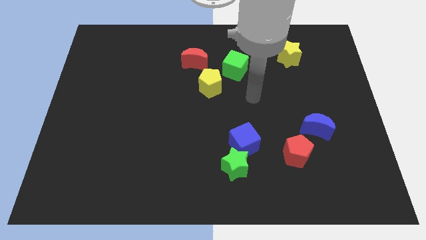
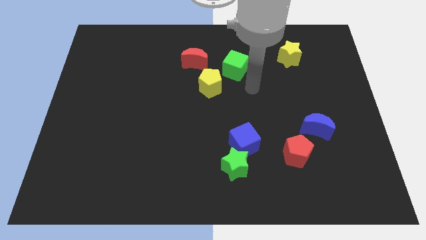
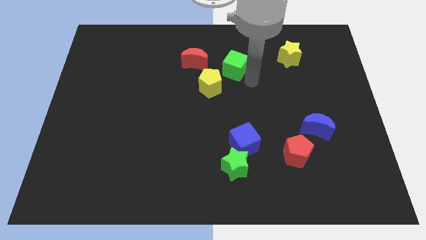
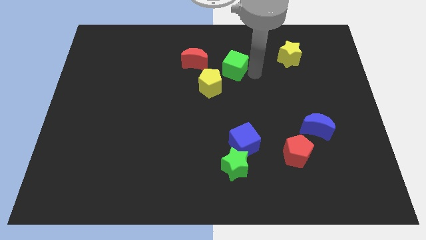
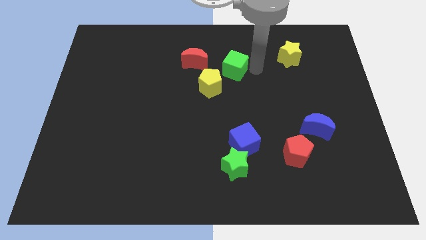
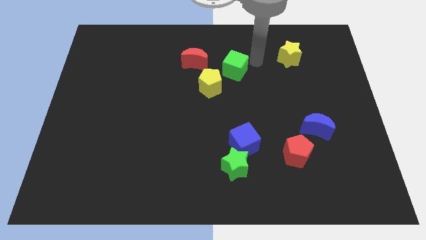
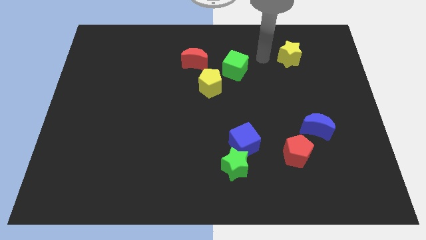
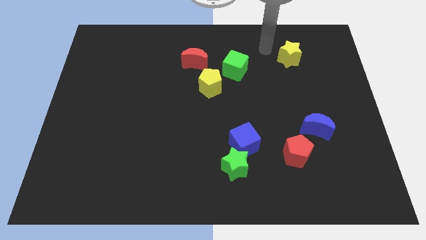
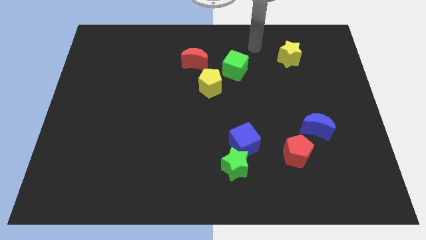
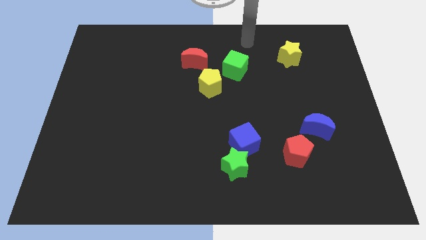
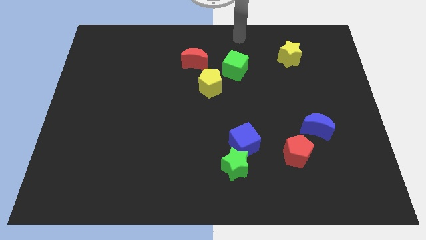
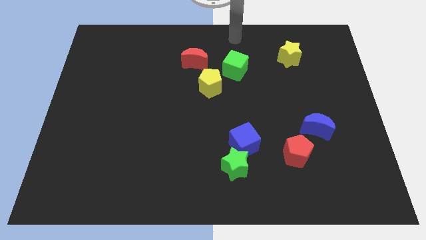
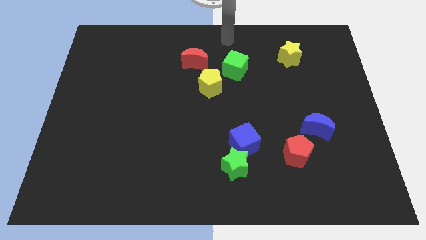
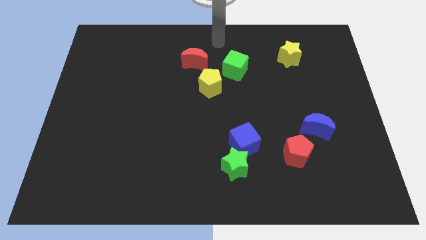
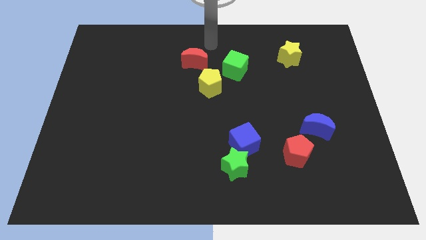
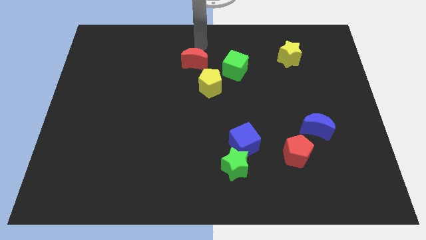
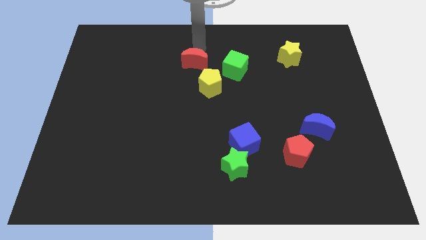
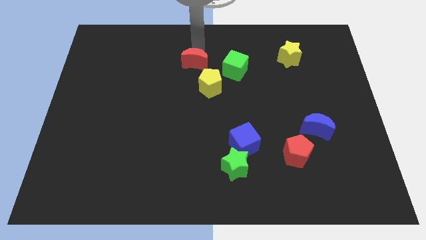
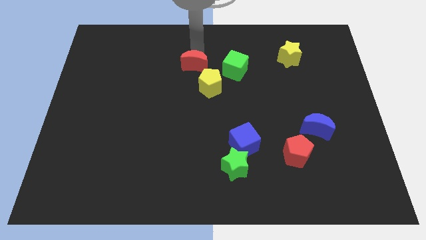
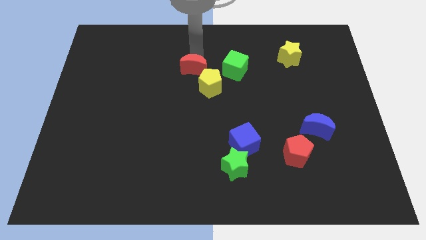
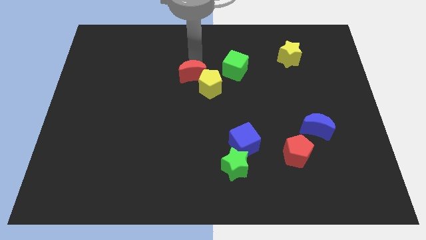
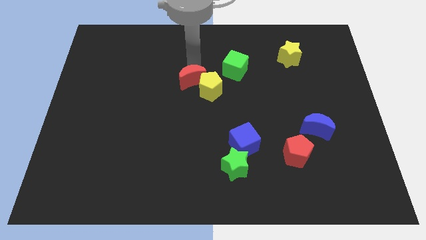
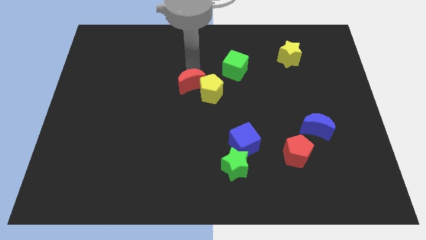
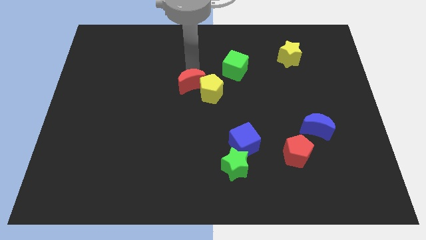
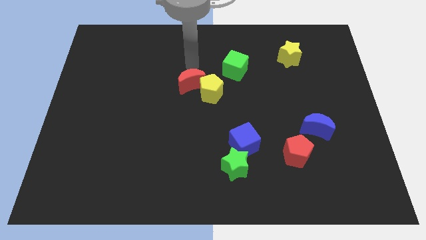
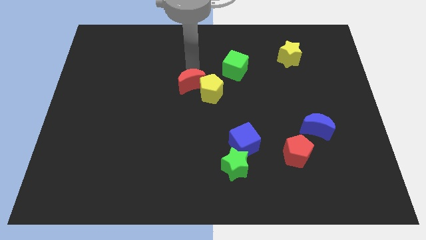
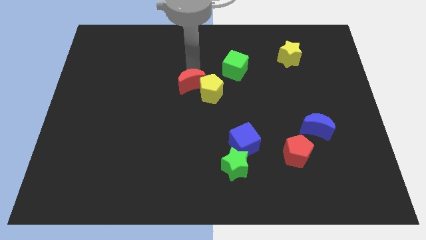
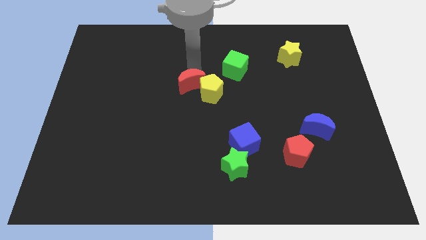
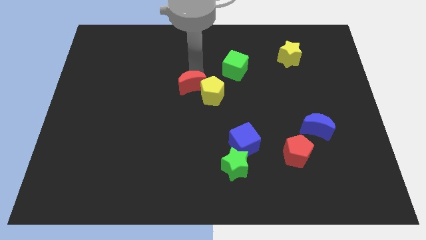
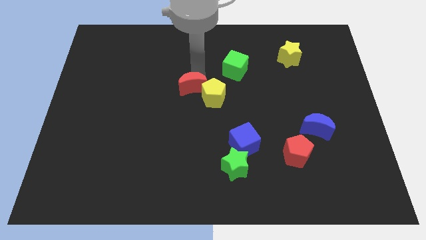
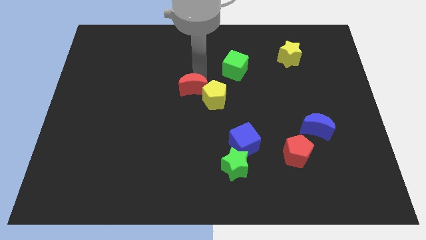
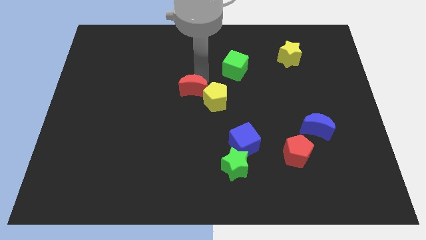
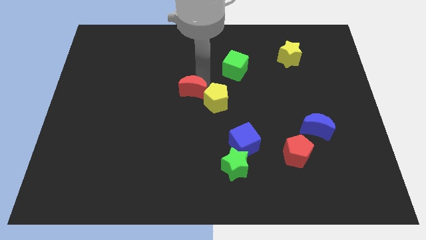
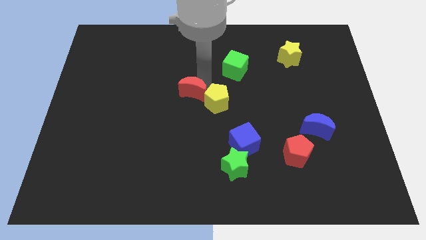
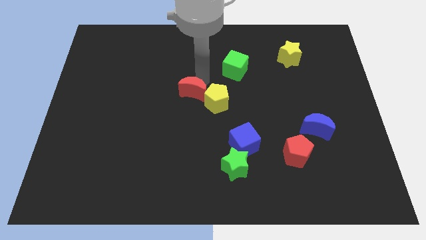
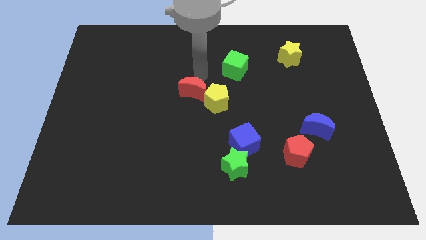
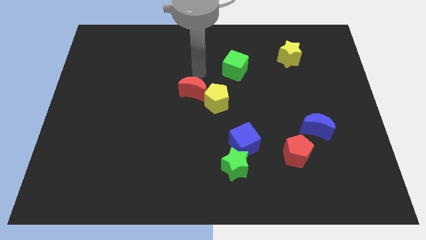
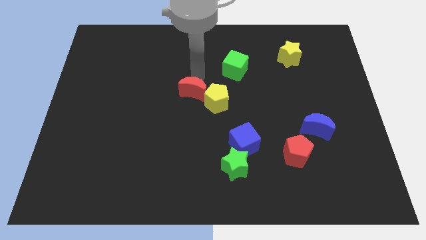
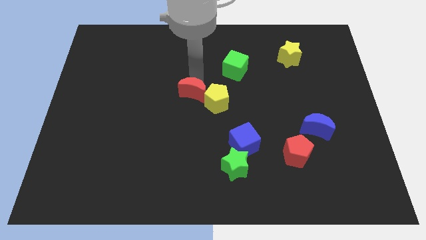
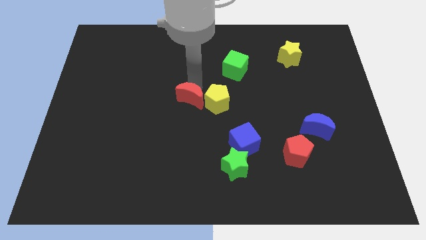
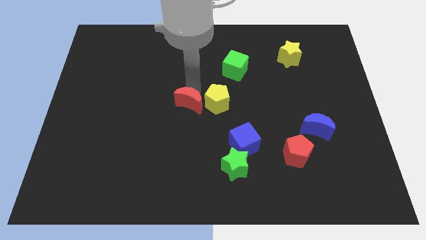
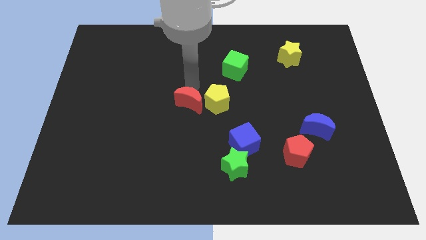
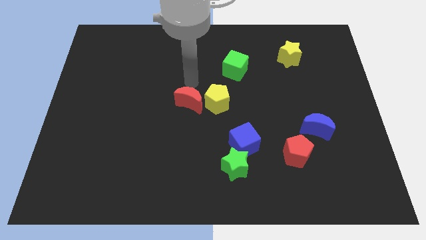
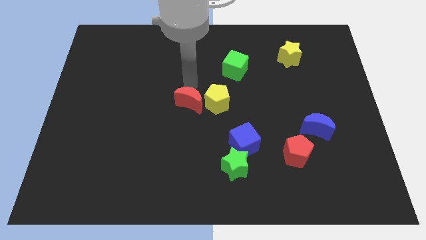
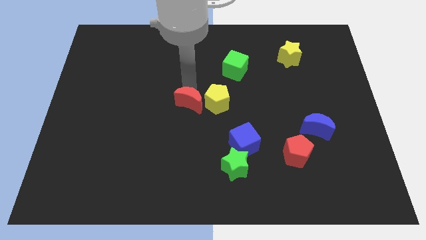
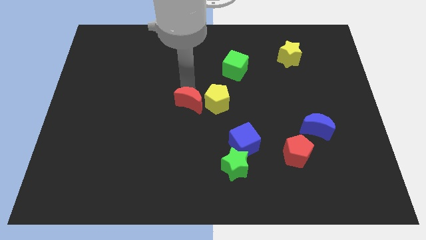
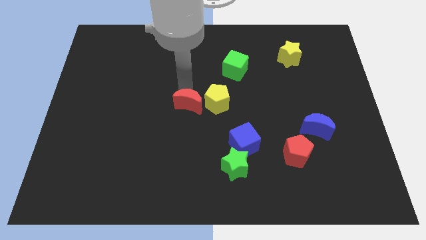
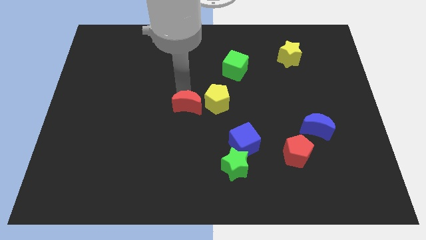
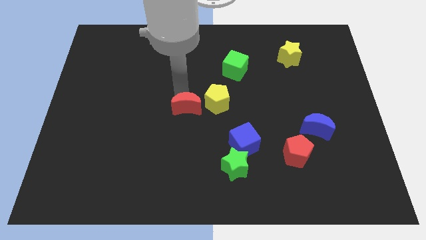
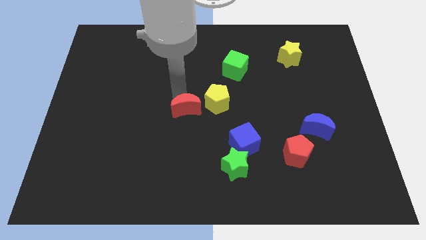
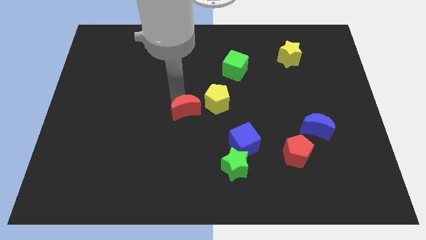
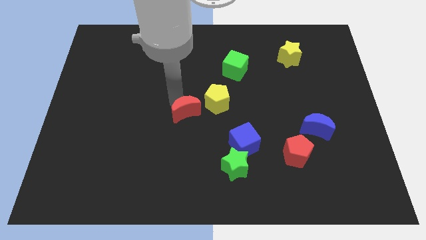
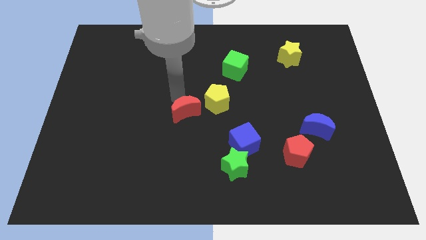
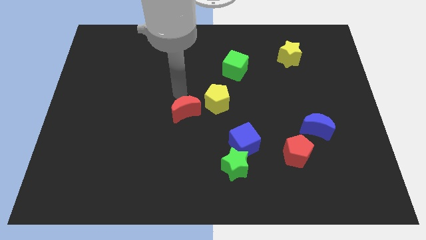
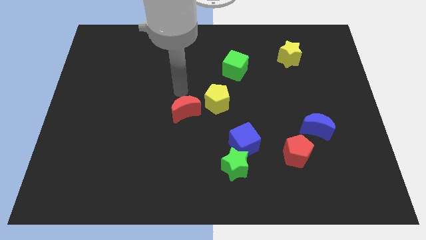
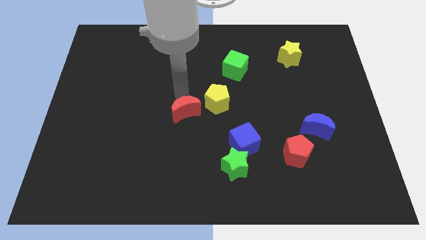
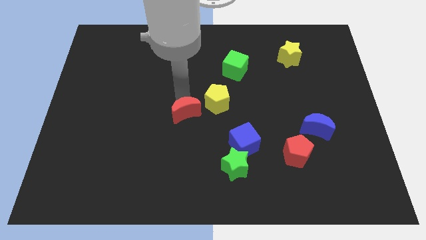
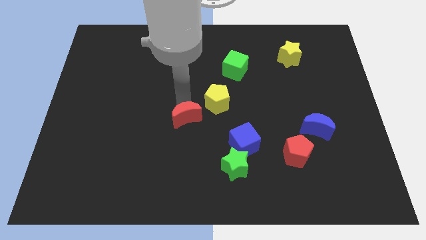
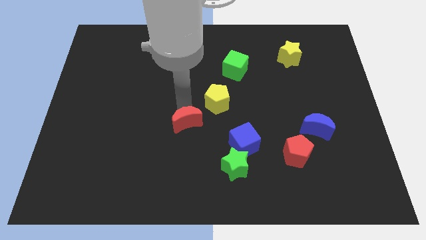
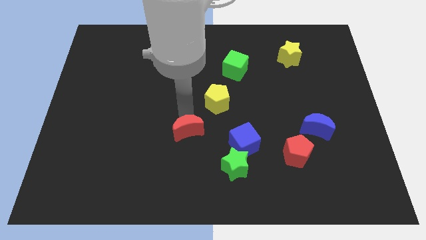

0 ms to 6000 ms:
slide the red moon down

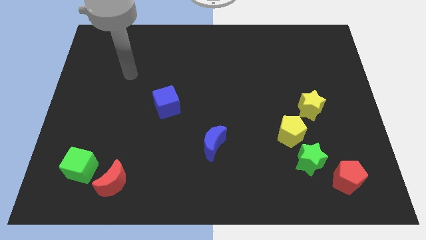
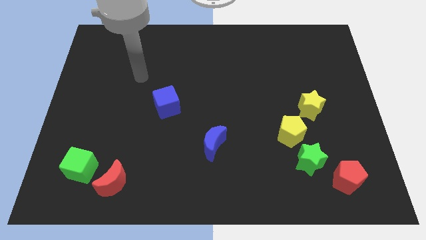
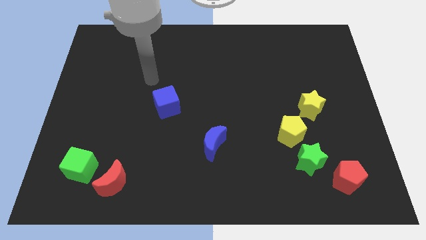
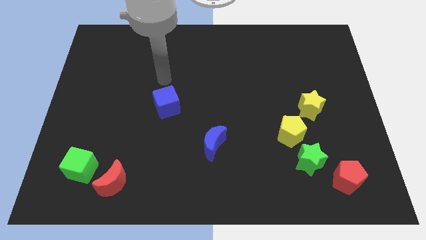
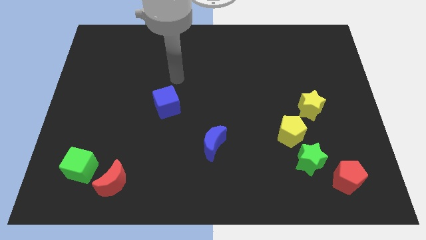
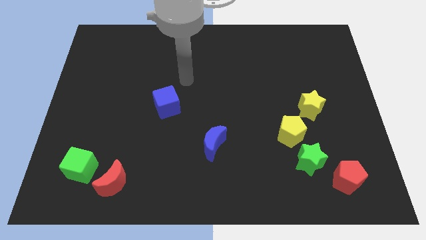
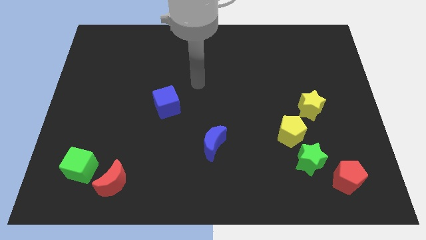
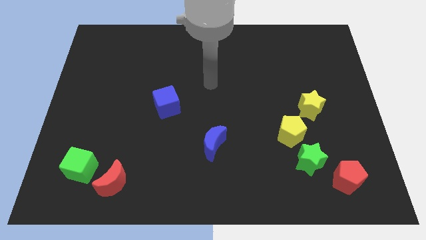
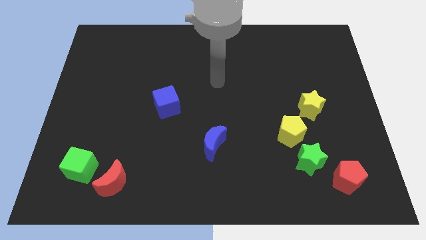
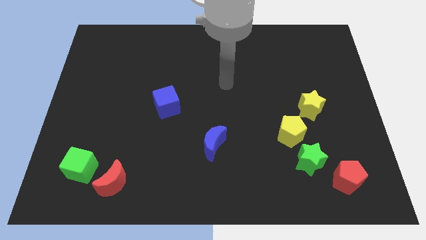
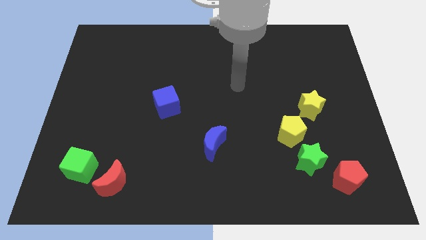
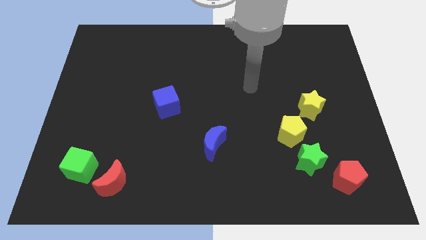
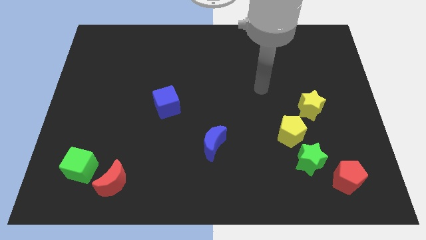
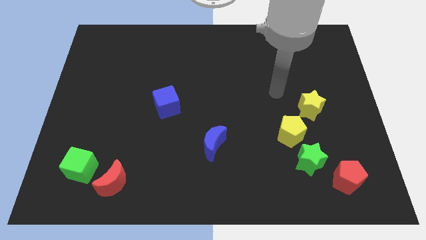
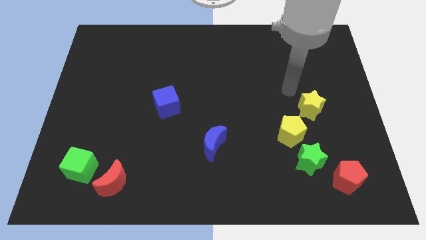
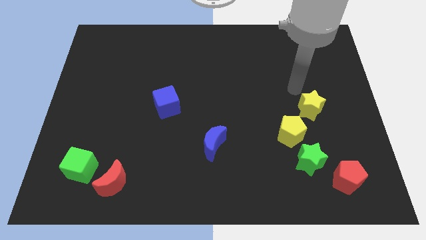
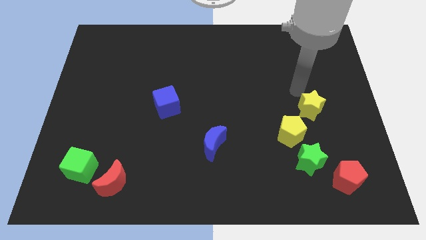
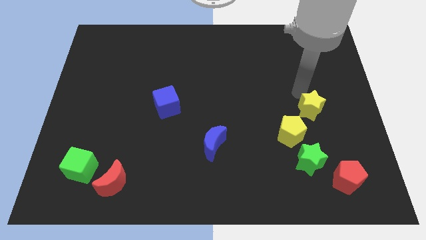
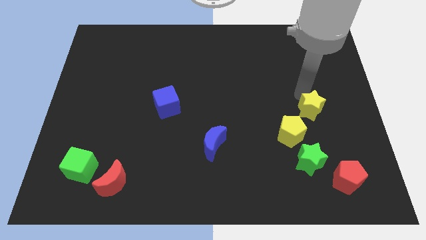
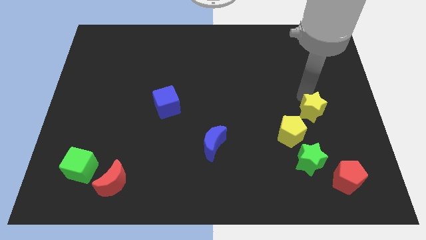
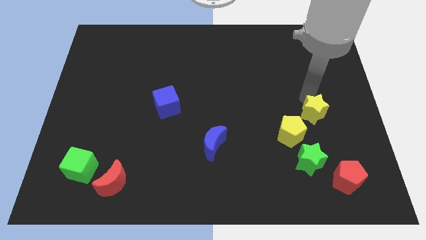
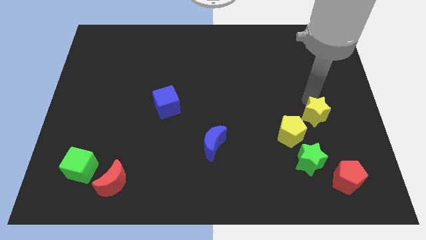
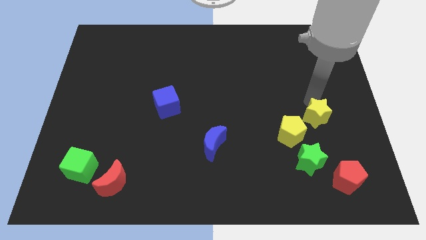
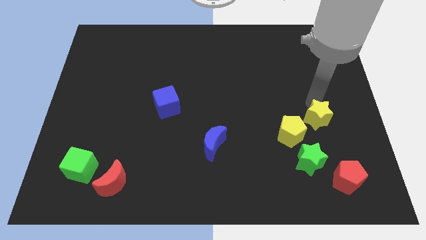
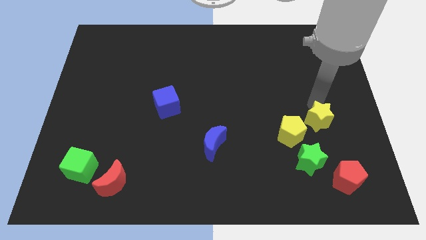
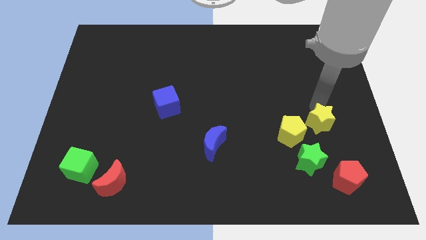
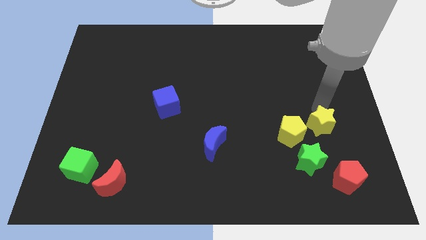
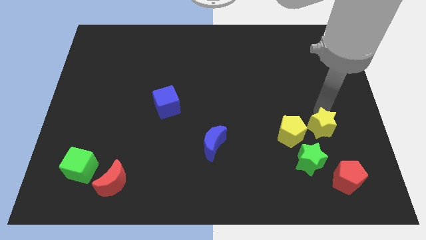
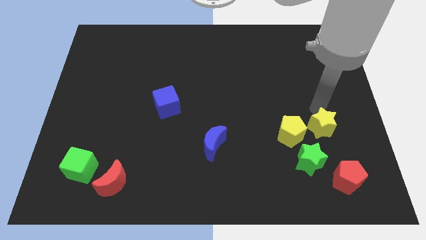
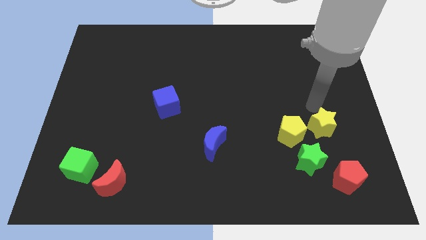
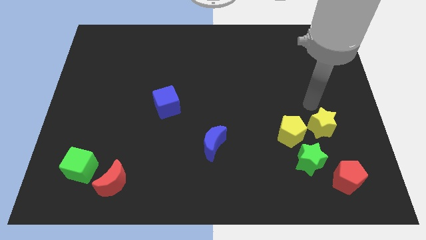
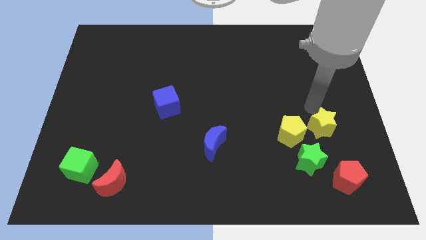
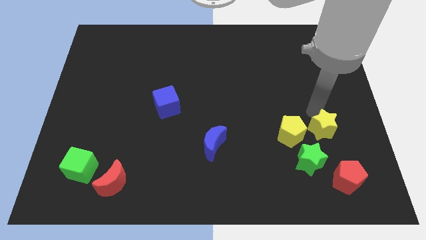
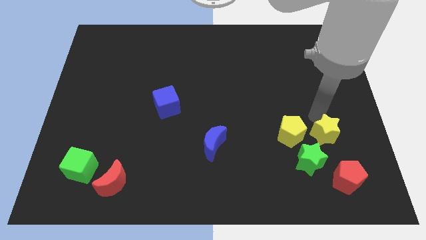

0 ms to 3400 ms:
push the yellow star a little downwards
